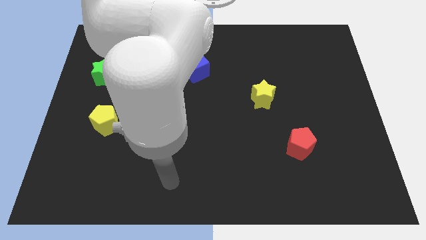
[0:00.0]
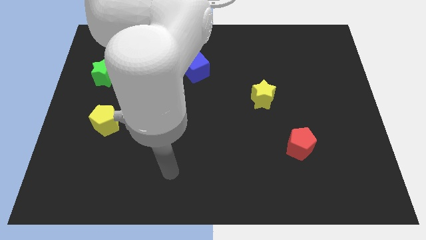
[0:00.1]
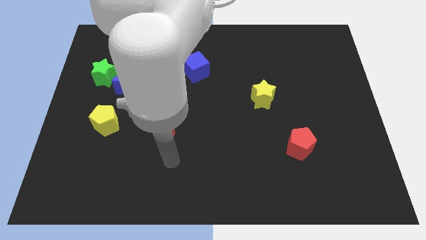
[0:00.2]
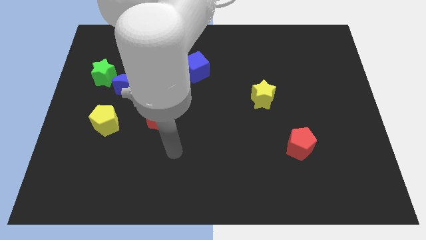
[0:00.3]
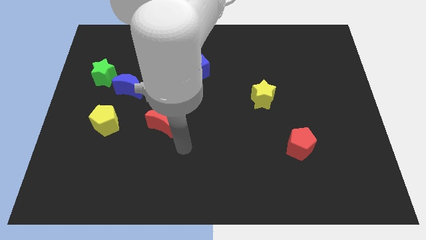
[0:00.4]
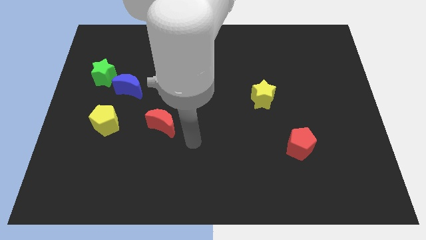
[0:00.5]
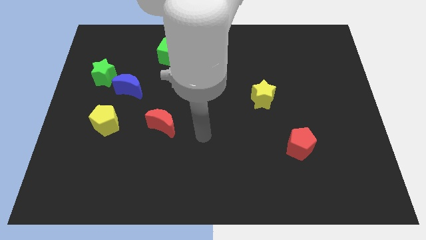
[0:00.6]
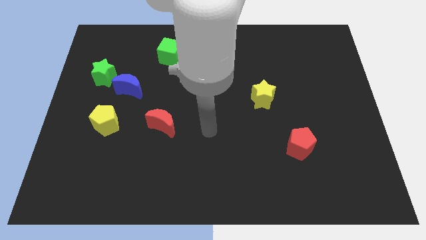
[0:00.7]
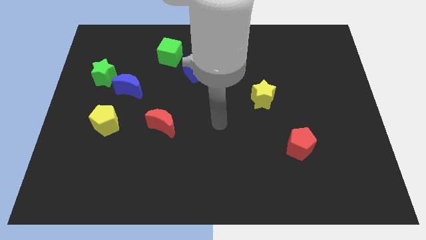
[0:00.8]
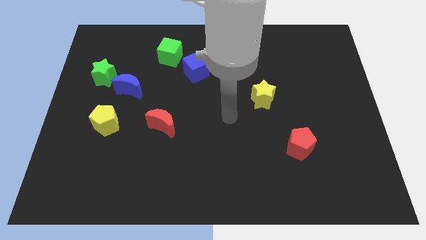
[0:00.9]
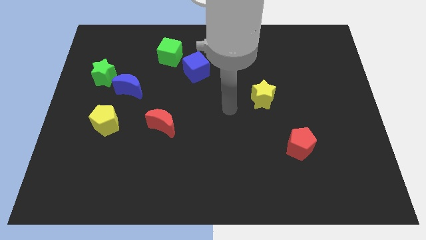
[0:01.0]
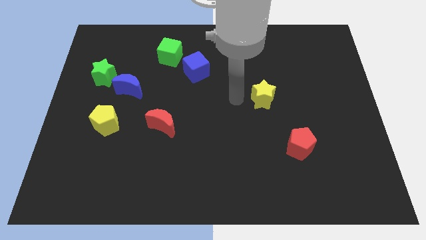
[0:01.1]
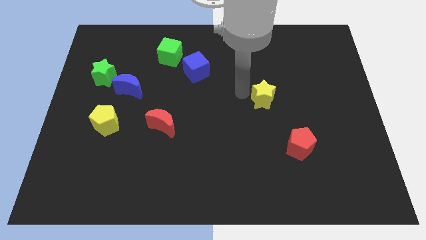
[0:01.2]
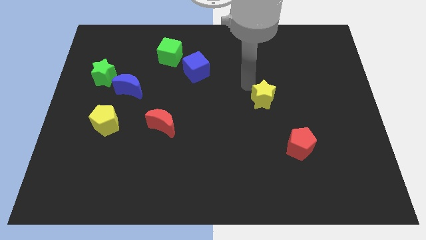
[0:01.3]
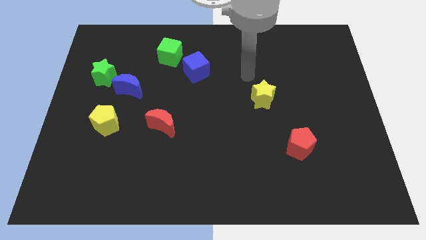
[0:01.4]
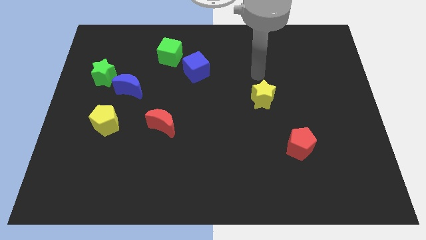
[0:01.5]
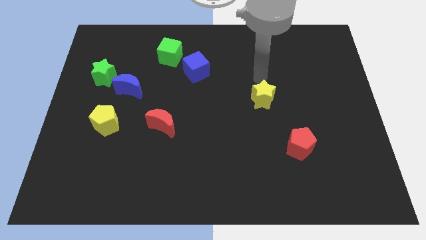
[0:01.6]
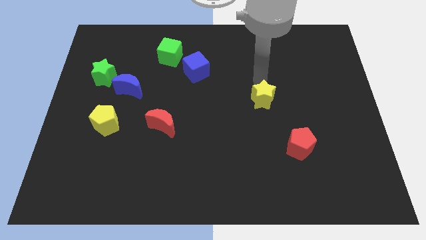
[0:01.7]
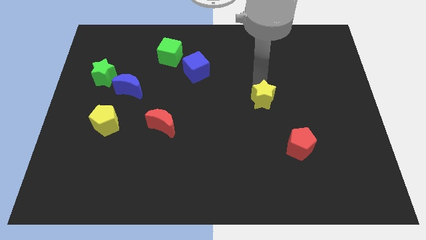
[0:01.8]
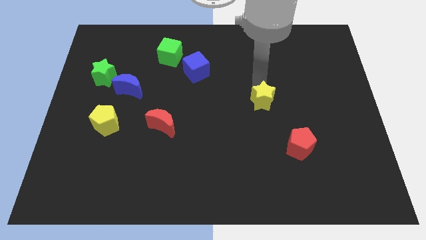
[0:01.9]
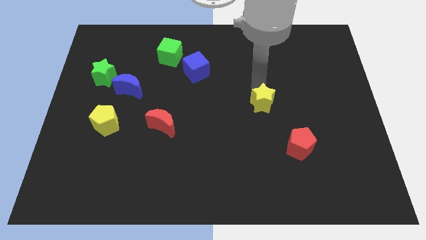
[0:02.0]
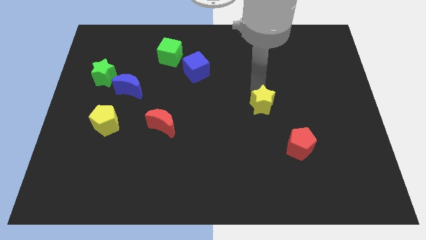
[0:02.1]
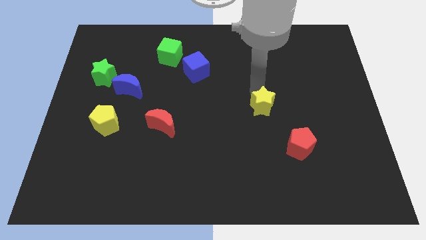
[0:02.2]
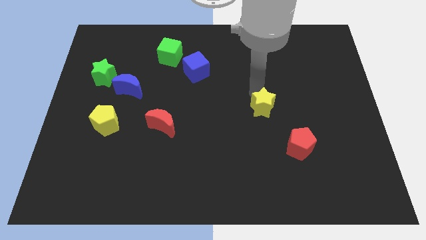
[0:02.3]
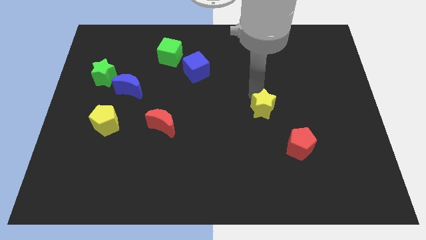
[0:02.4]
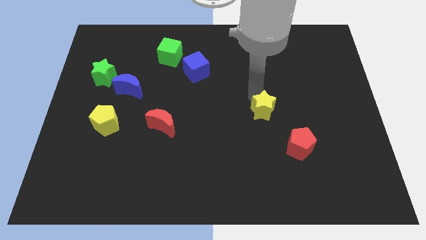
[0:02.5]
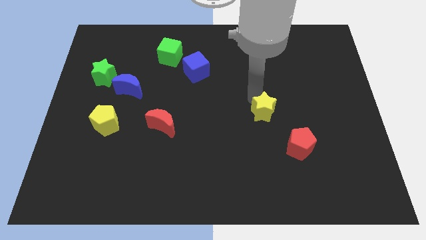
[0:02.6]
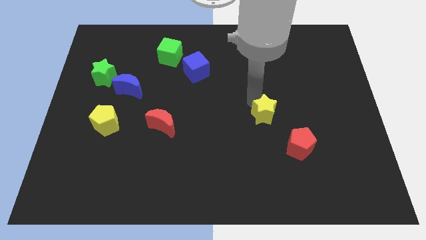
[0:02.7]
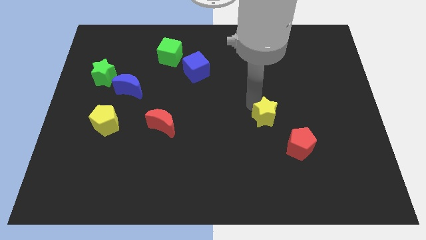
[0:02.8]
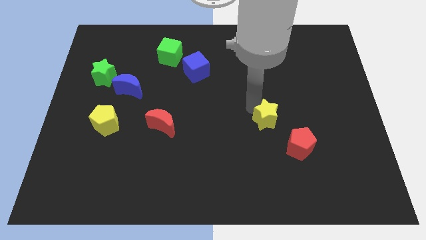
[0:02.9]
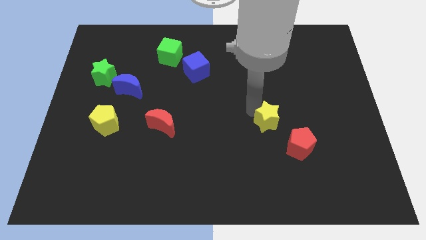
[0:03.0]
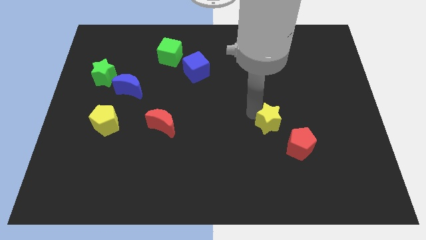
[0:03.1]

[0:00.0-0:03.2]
push the yellow star a bit down

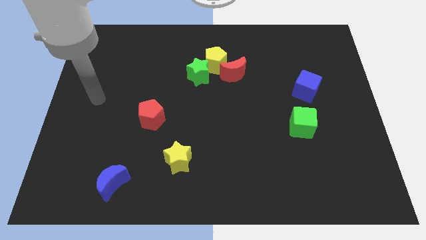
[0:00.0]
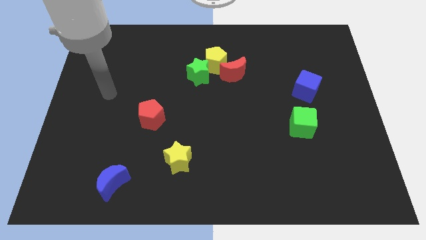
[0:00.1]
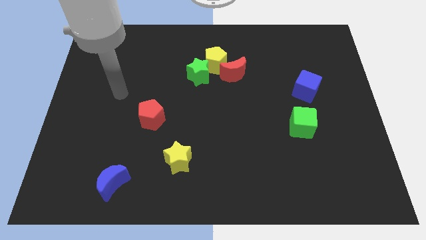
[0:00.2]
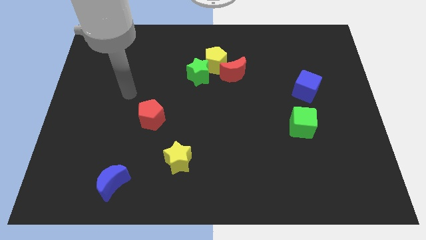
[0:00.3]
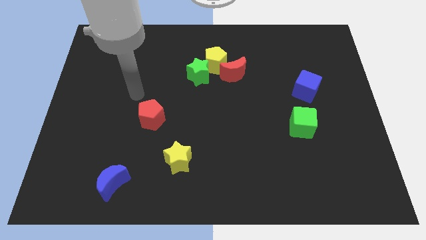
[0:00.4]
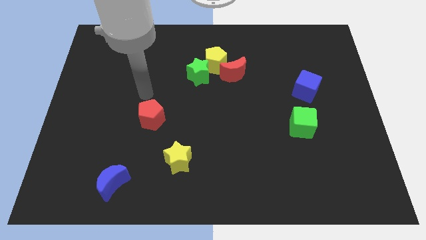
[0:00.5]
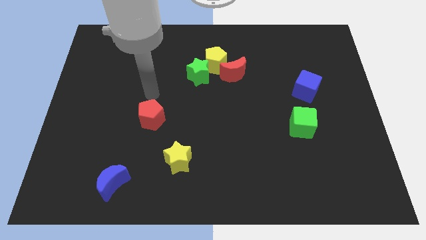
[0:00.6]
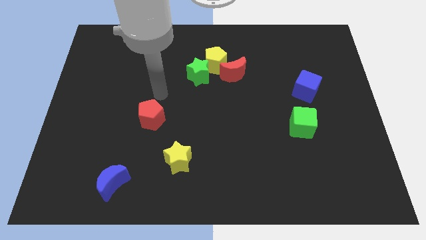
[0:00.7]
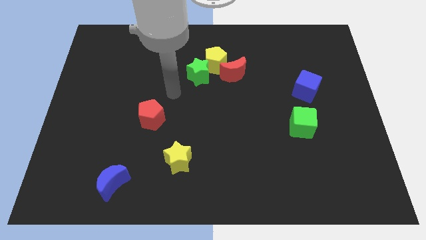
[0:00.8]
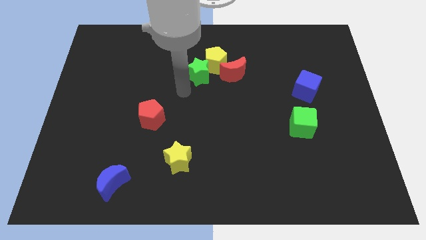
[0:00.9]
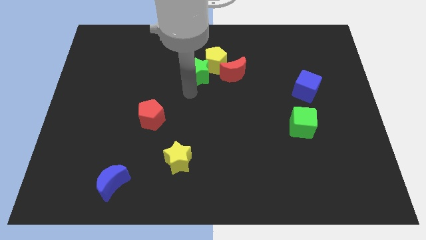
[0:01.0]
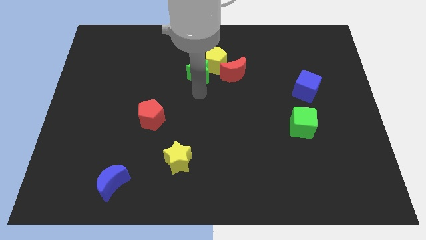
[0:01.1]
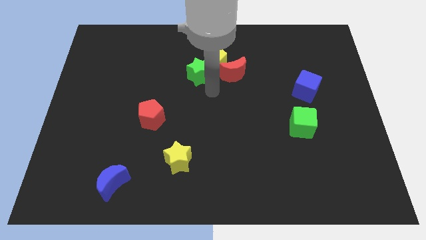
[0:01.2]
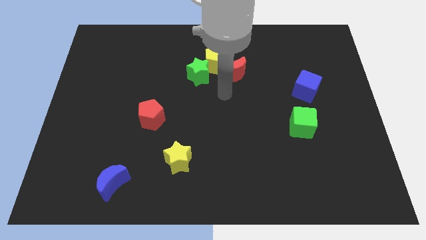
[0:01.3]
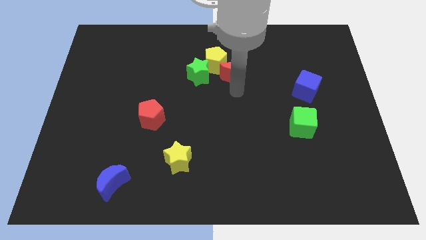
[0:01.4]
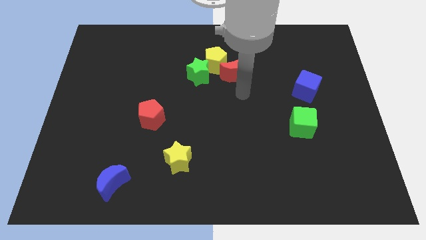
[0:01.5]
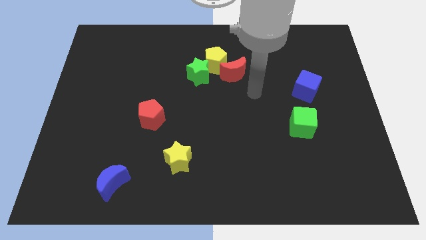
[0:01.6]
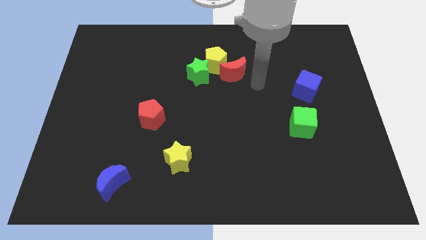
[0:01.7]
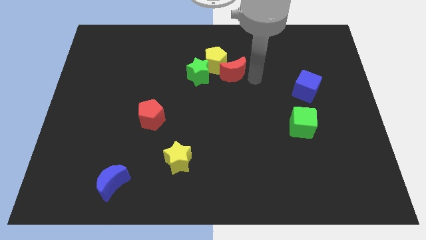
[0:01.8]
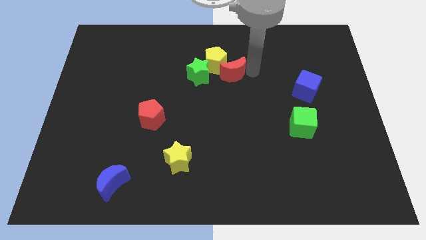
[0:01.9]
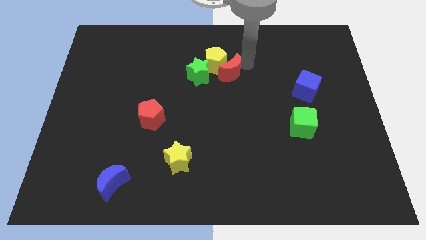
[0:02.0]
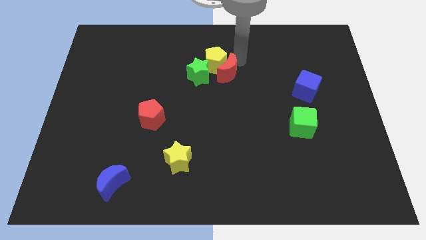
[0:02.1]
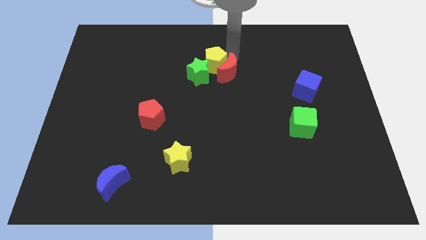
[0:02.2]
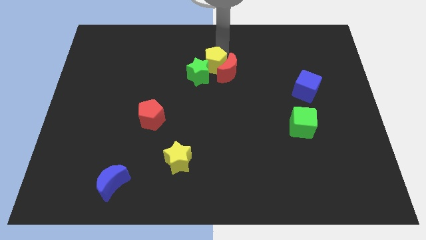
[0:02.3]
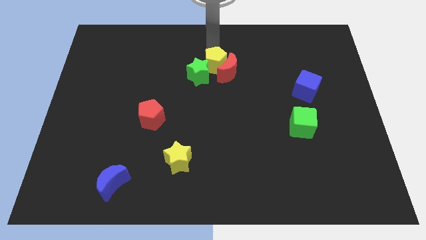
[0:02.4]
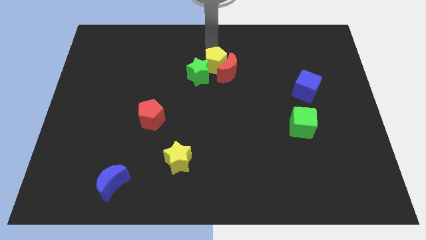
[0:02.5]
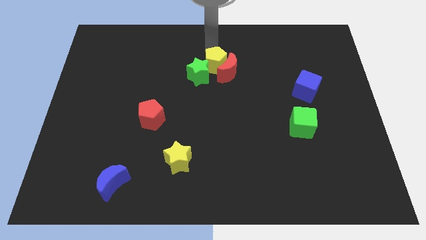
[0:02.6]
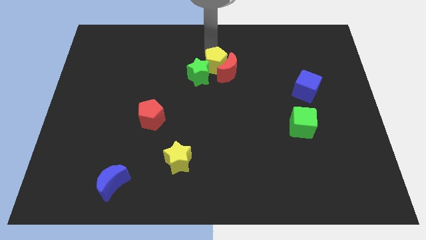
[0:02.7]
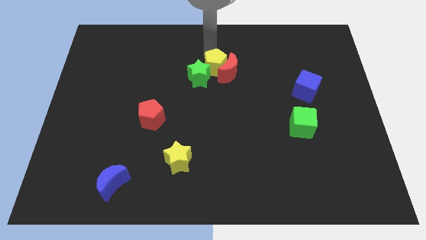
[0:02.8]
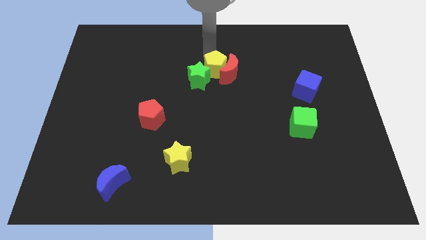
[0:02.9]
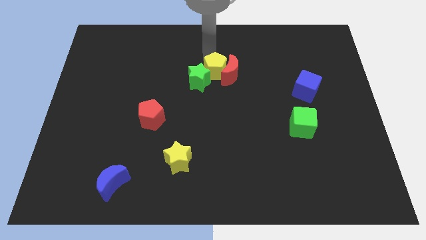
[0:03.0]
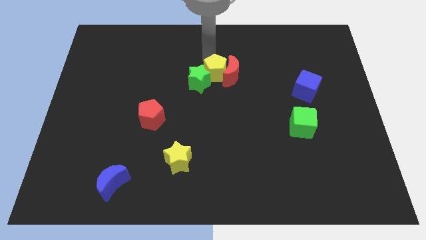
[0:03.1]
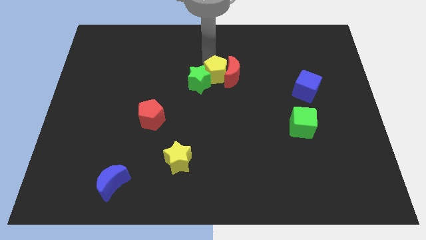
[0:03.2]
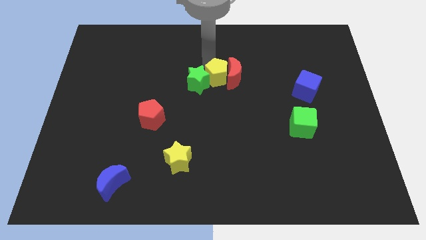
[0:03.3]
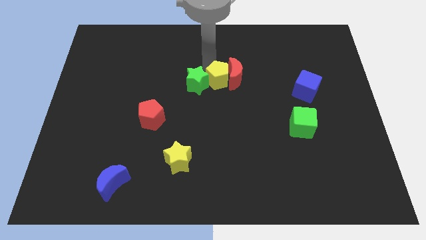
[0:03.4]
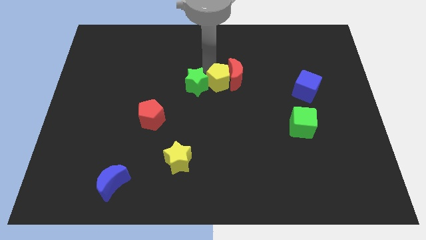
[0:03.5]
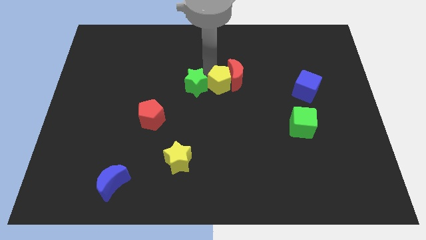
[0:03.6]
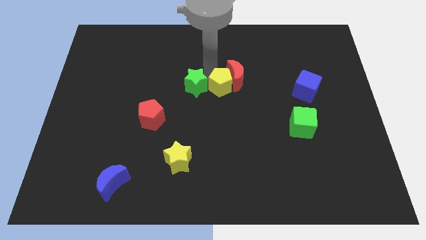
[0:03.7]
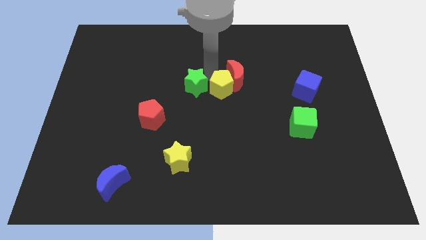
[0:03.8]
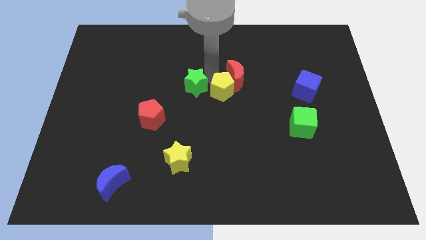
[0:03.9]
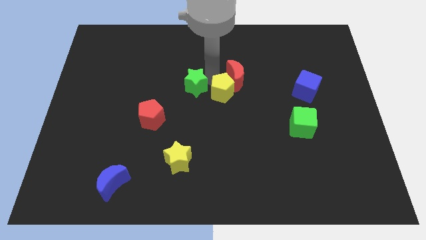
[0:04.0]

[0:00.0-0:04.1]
move the yellow pentagon down and to the right diagonally a bit

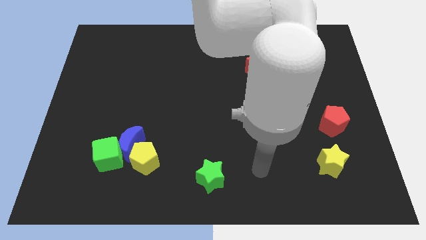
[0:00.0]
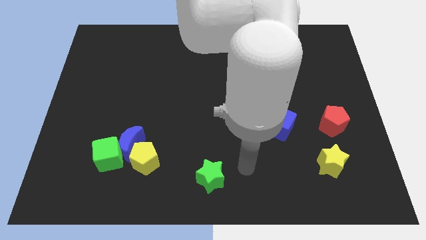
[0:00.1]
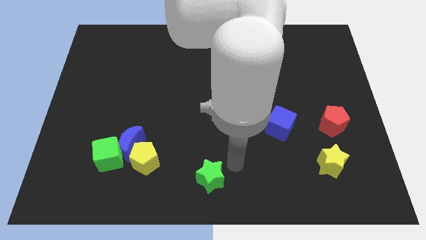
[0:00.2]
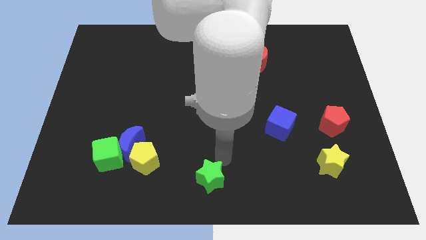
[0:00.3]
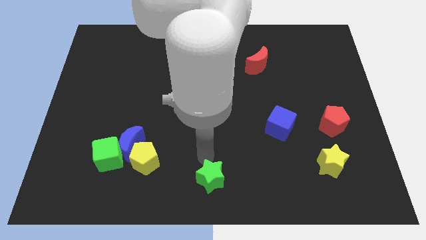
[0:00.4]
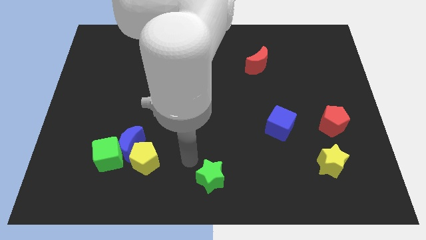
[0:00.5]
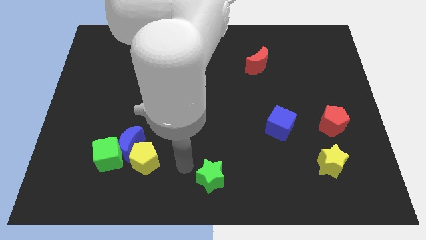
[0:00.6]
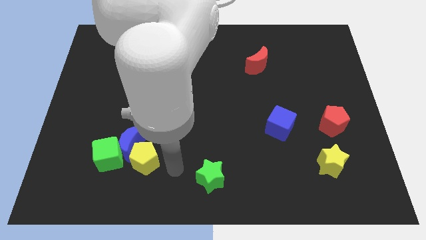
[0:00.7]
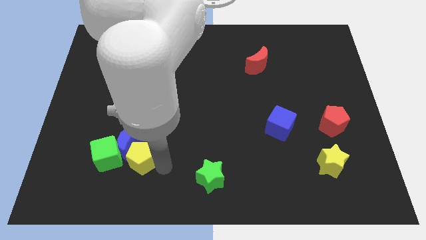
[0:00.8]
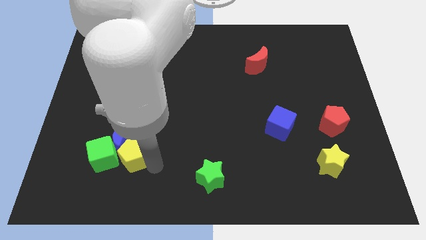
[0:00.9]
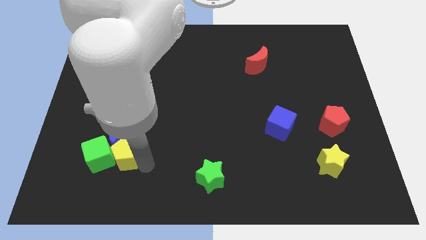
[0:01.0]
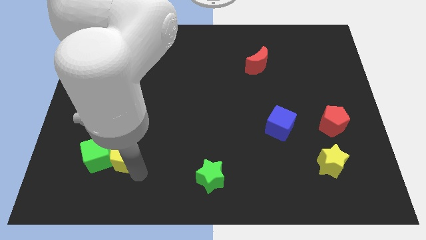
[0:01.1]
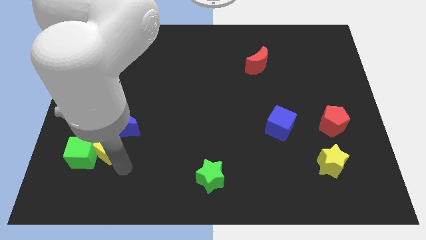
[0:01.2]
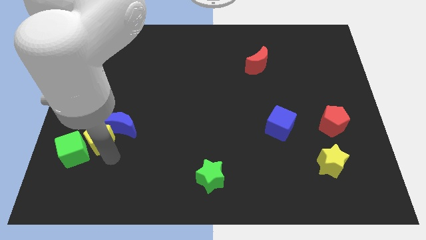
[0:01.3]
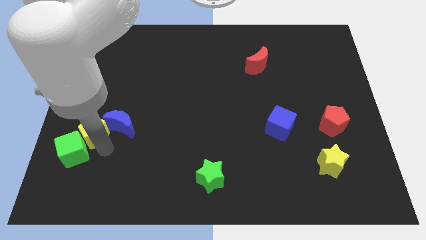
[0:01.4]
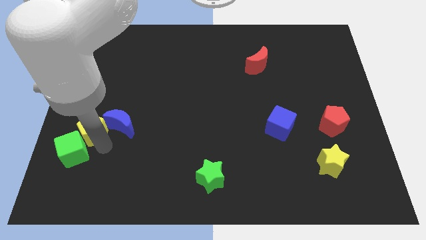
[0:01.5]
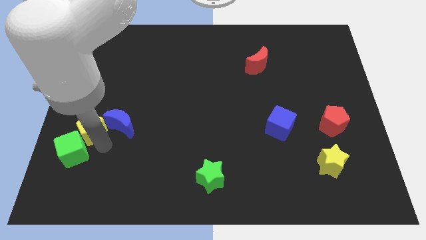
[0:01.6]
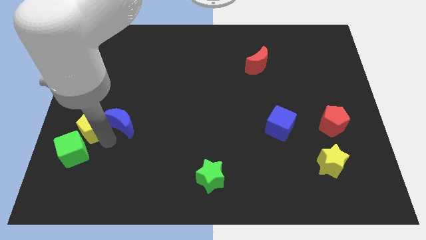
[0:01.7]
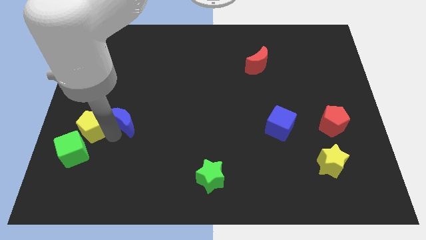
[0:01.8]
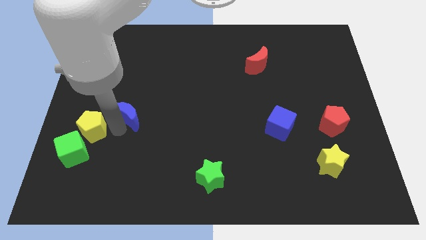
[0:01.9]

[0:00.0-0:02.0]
push the blue moon a little bit upwards
